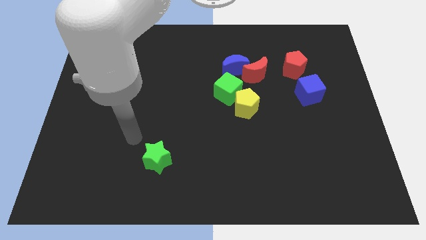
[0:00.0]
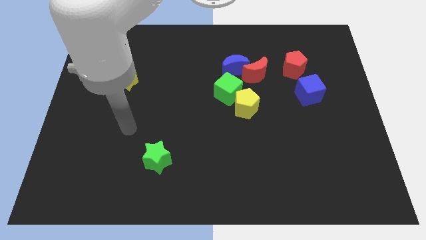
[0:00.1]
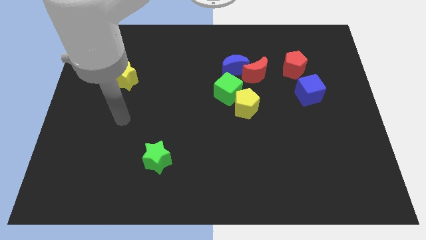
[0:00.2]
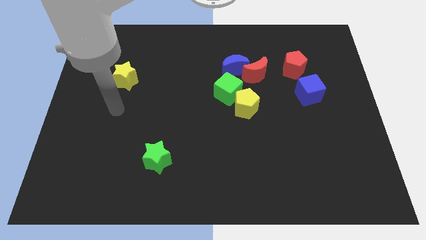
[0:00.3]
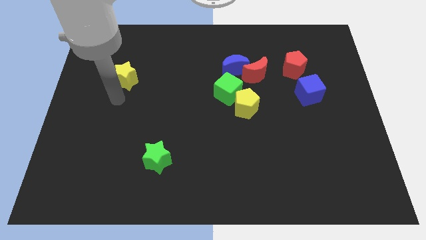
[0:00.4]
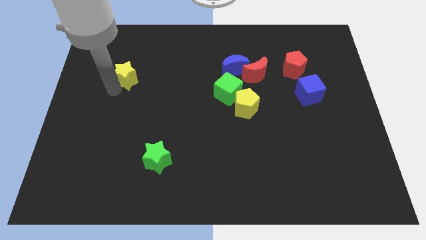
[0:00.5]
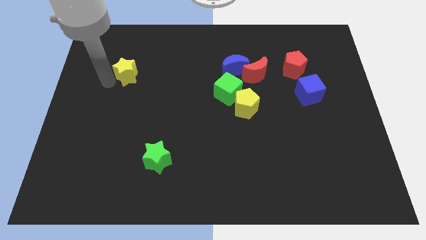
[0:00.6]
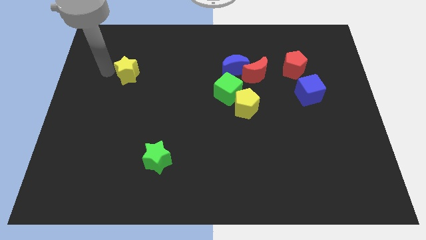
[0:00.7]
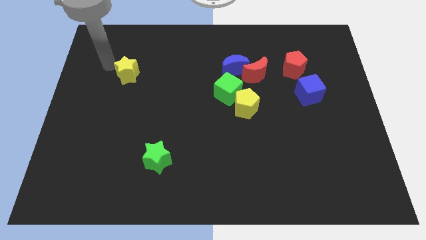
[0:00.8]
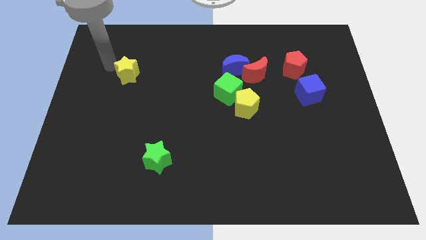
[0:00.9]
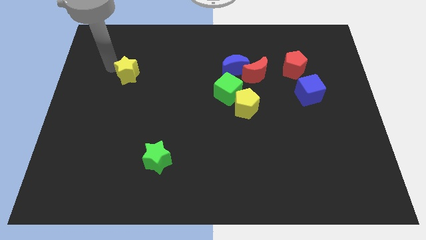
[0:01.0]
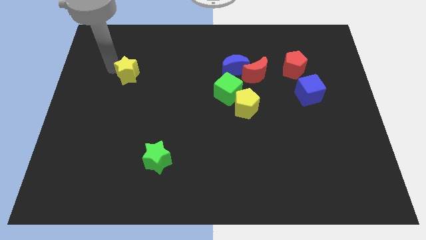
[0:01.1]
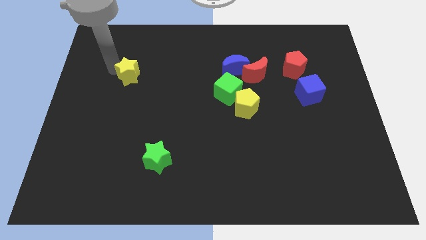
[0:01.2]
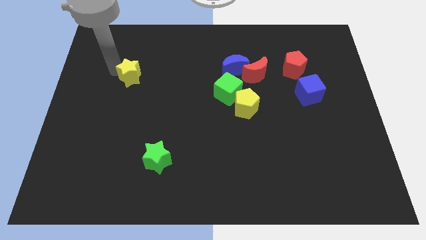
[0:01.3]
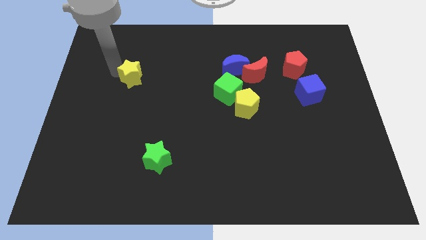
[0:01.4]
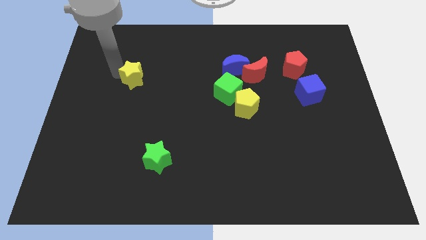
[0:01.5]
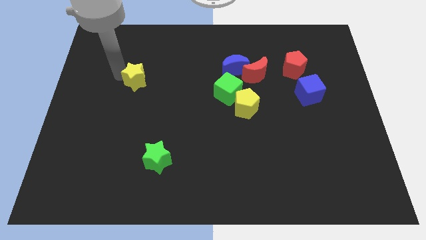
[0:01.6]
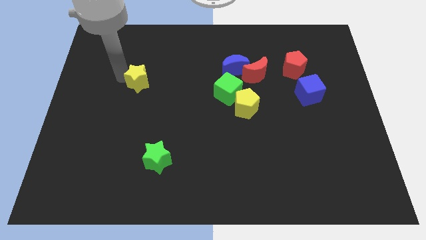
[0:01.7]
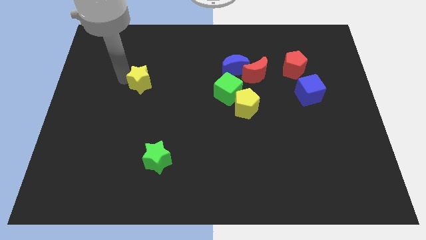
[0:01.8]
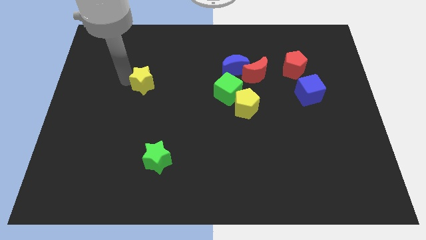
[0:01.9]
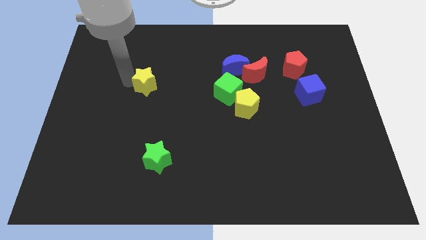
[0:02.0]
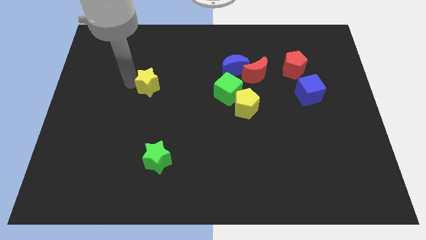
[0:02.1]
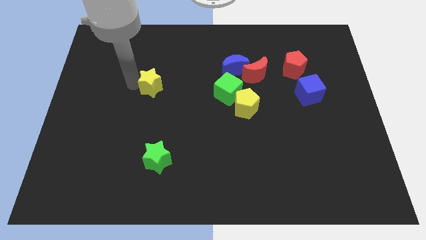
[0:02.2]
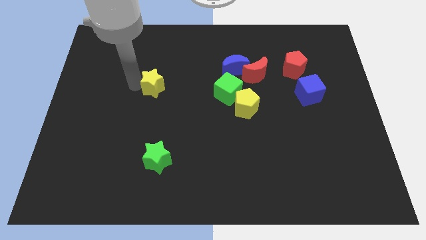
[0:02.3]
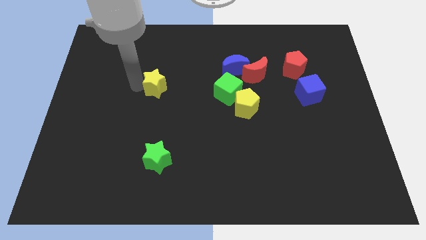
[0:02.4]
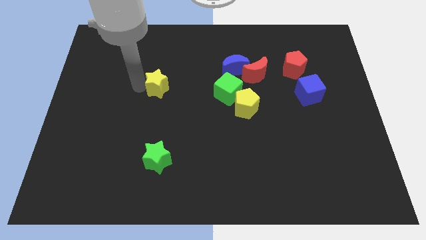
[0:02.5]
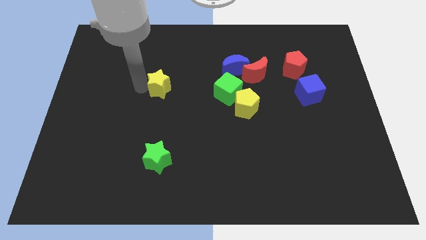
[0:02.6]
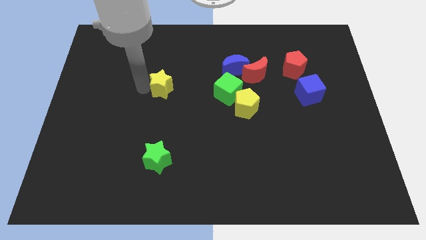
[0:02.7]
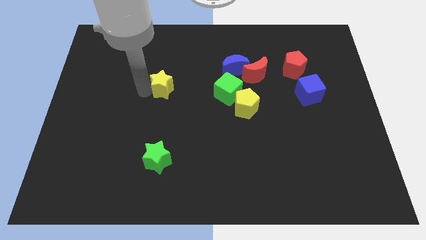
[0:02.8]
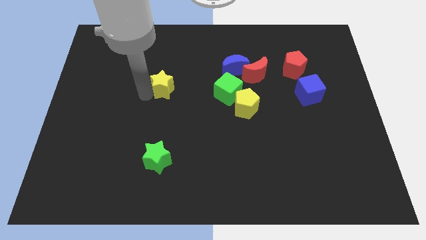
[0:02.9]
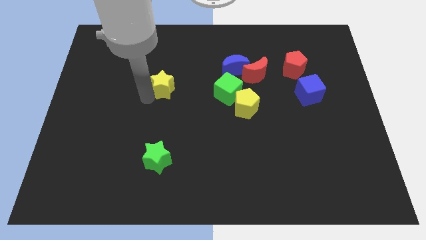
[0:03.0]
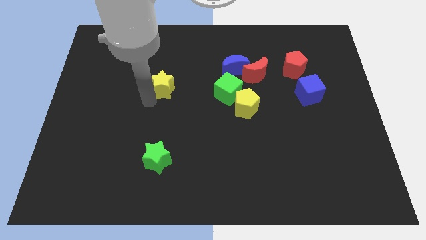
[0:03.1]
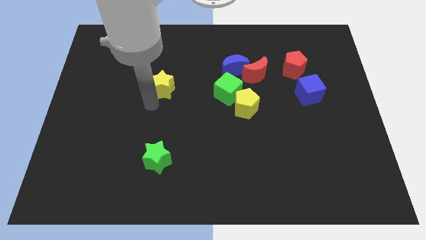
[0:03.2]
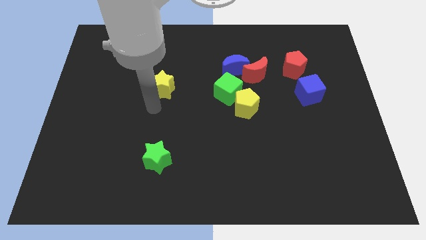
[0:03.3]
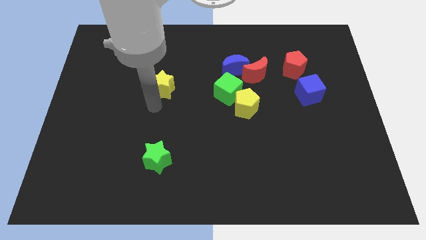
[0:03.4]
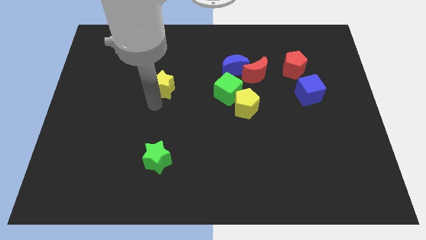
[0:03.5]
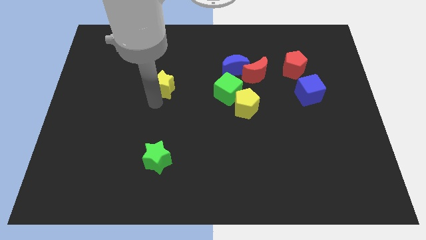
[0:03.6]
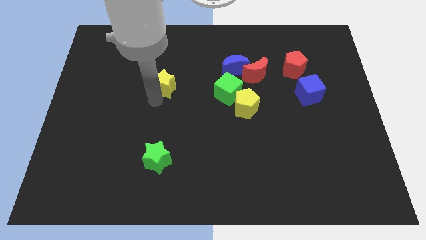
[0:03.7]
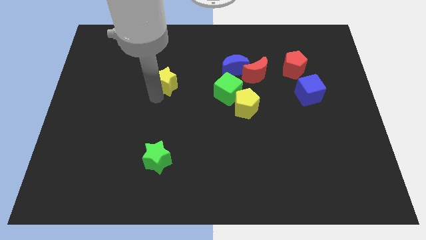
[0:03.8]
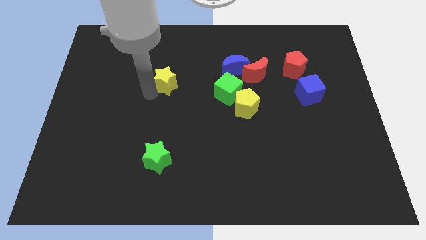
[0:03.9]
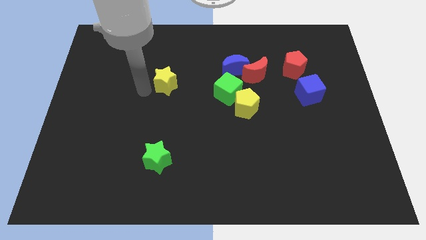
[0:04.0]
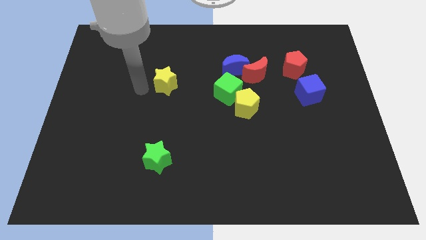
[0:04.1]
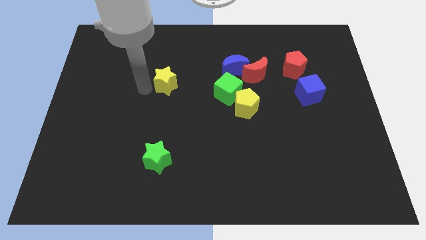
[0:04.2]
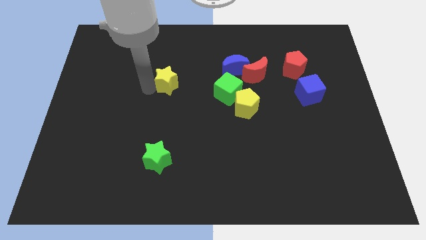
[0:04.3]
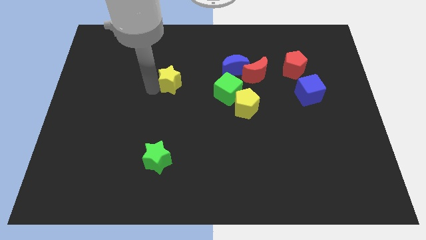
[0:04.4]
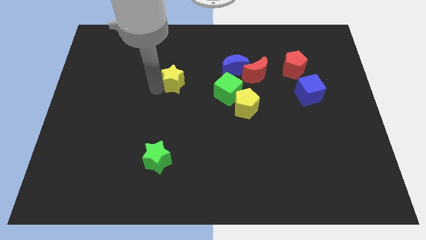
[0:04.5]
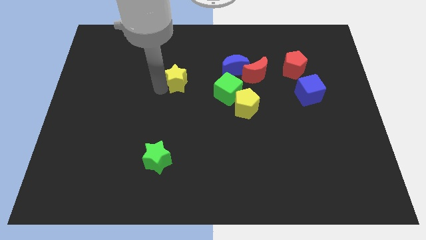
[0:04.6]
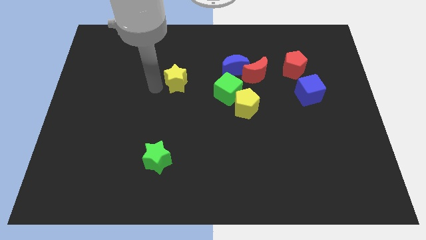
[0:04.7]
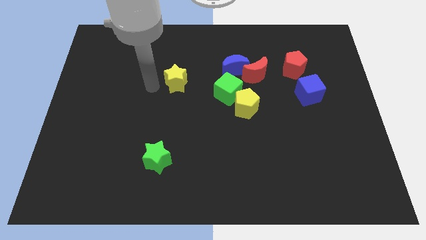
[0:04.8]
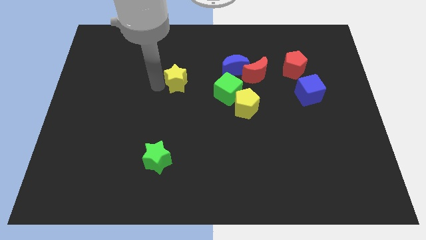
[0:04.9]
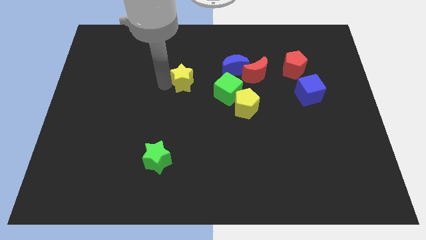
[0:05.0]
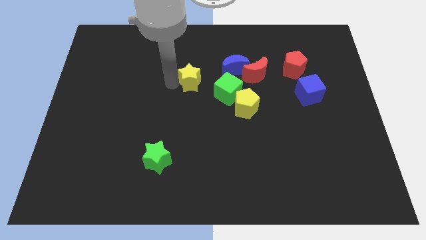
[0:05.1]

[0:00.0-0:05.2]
put the yellow star diagonally up and to the left of the green cube

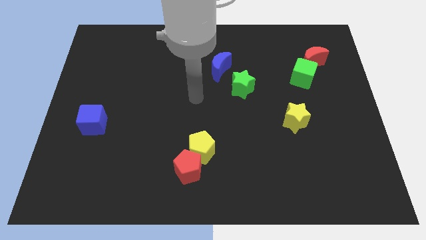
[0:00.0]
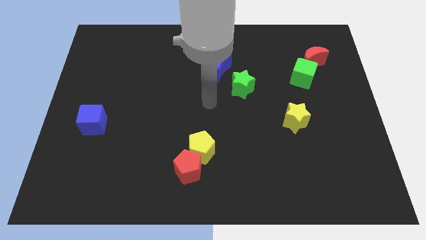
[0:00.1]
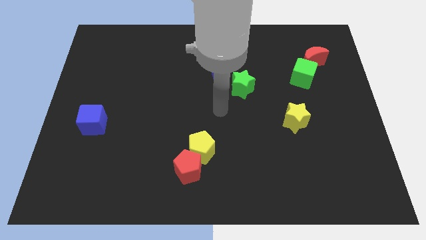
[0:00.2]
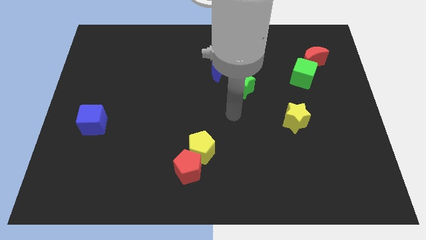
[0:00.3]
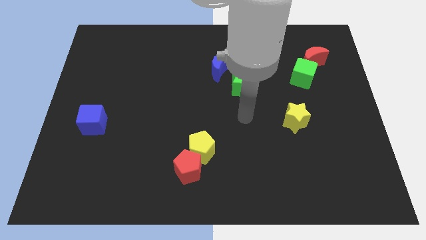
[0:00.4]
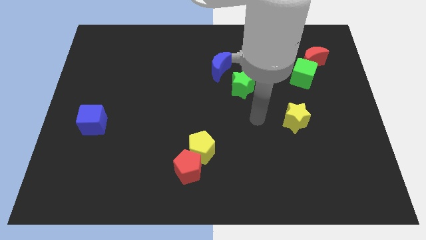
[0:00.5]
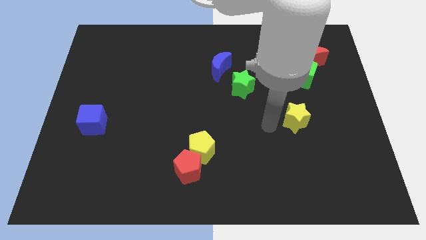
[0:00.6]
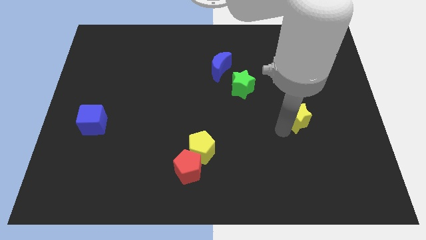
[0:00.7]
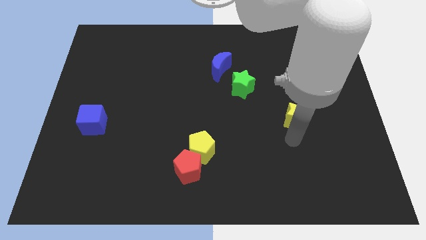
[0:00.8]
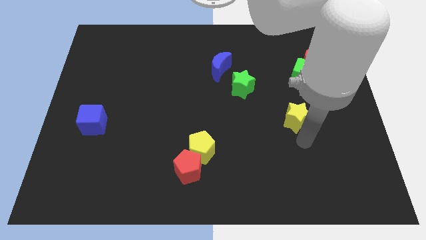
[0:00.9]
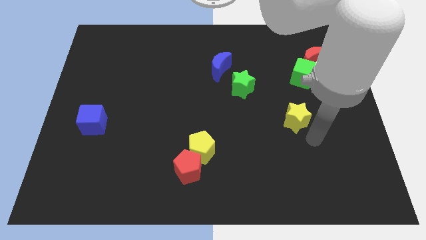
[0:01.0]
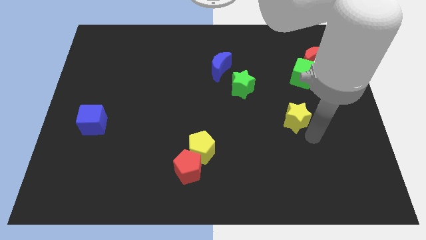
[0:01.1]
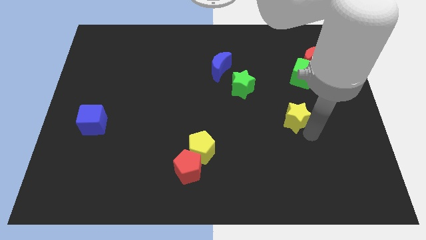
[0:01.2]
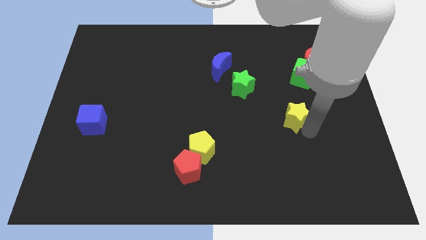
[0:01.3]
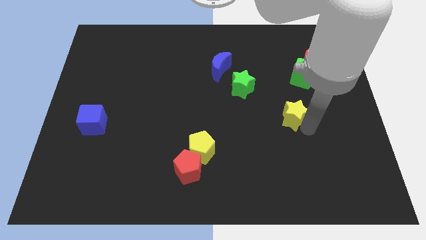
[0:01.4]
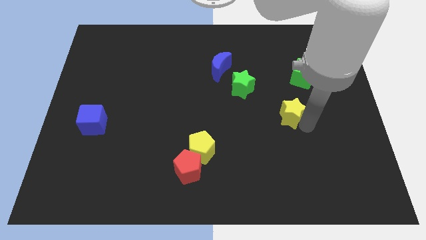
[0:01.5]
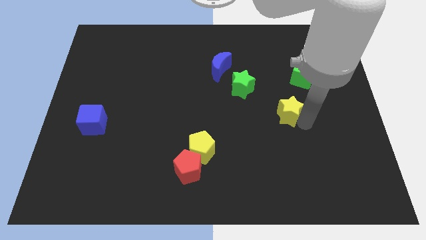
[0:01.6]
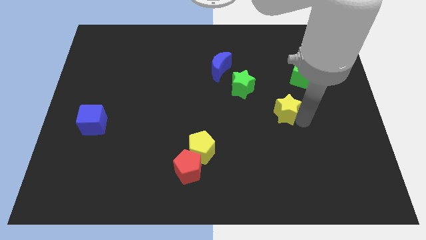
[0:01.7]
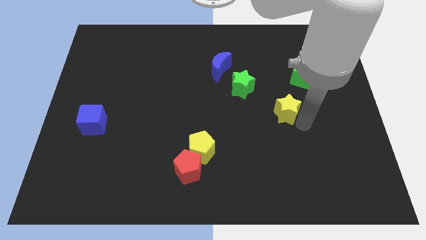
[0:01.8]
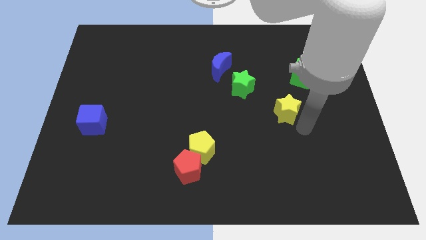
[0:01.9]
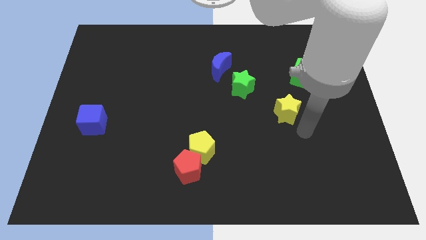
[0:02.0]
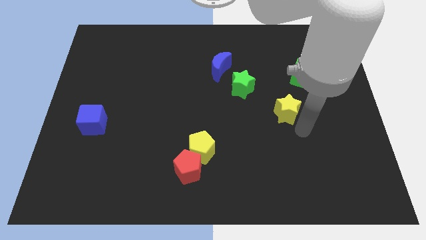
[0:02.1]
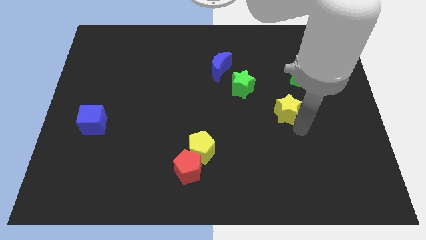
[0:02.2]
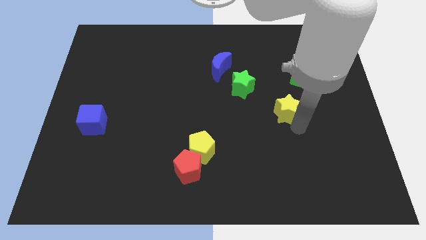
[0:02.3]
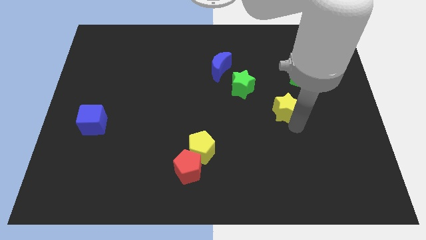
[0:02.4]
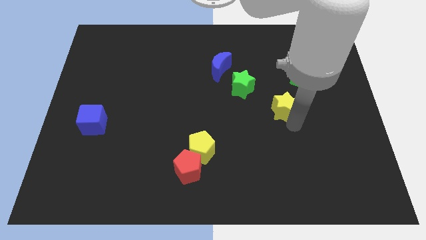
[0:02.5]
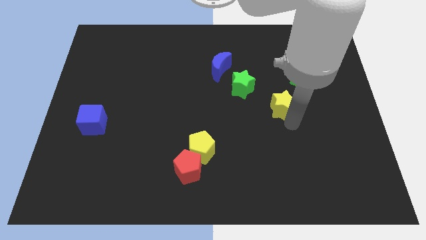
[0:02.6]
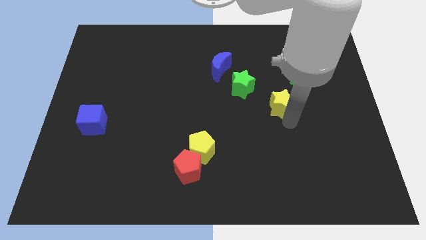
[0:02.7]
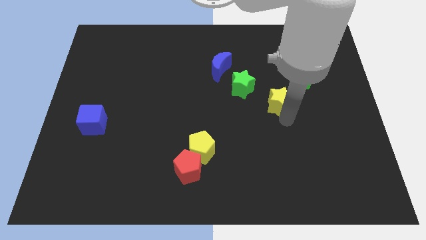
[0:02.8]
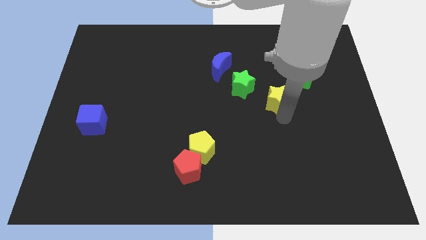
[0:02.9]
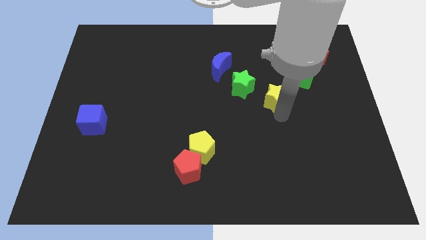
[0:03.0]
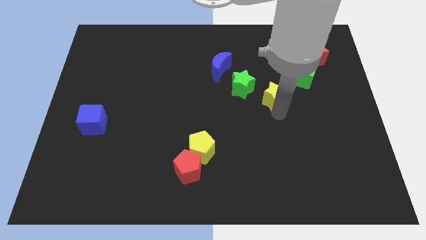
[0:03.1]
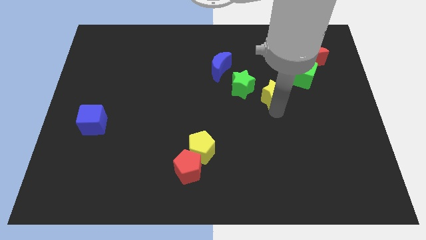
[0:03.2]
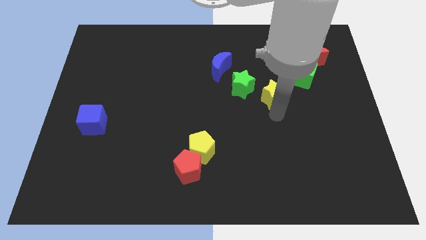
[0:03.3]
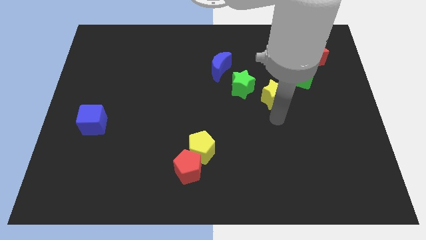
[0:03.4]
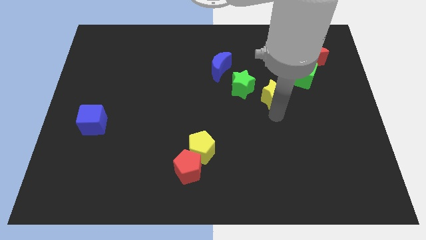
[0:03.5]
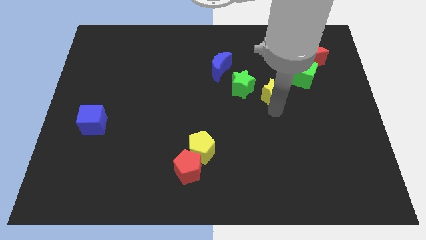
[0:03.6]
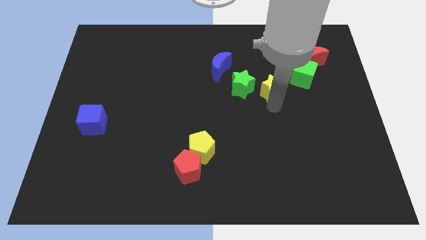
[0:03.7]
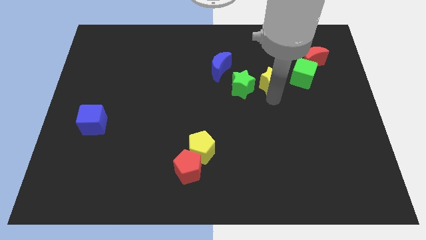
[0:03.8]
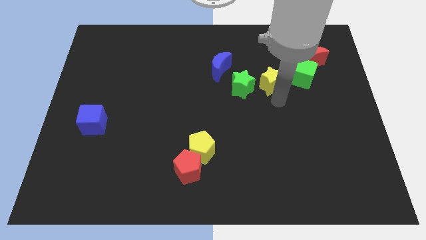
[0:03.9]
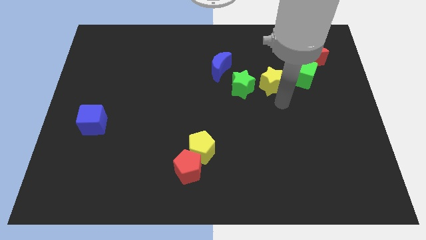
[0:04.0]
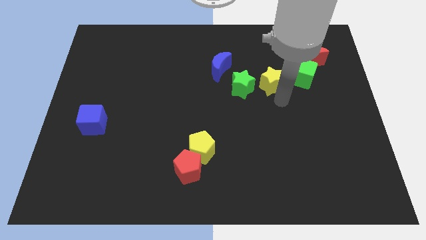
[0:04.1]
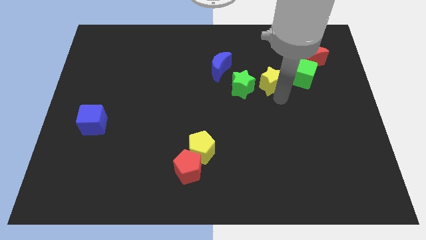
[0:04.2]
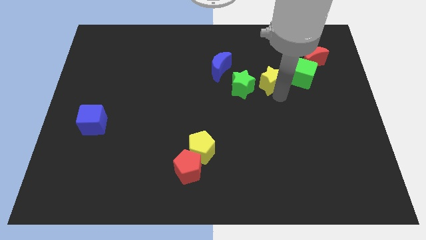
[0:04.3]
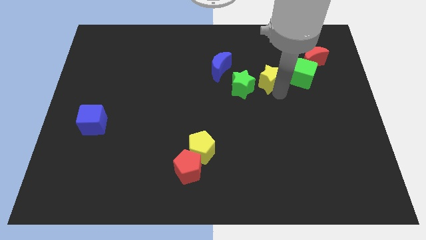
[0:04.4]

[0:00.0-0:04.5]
put the yellow star to the right of the blue moon
